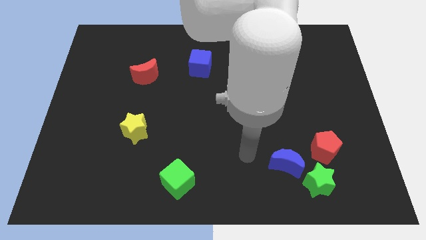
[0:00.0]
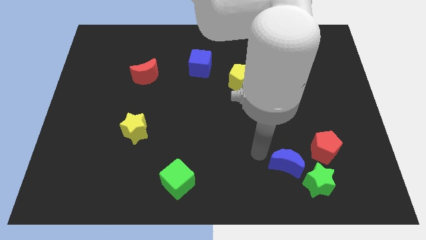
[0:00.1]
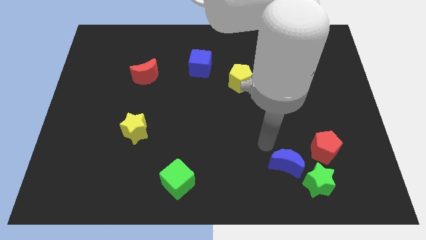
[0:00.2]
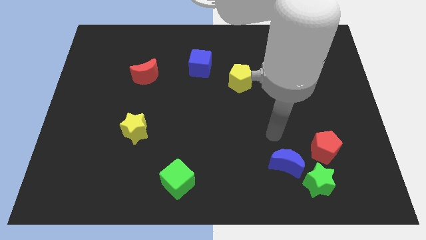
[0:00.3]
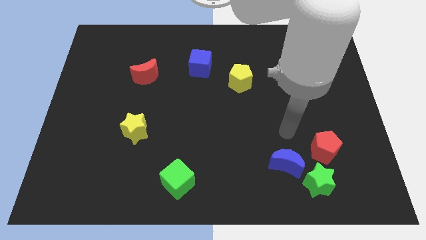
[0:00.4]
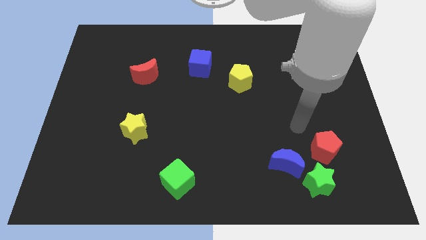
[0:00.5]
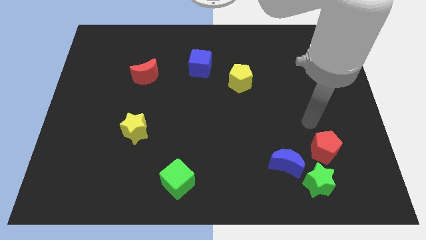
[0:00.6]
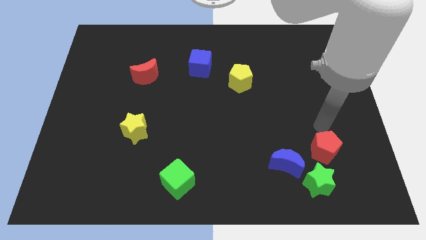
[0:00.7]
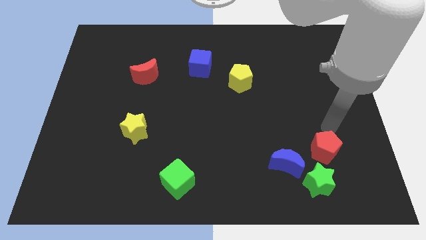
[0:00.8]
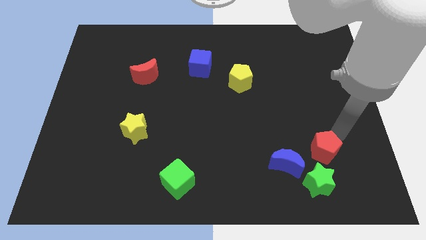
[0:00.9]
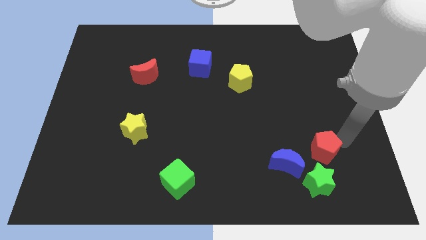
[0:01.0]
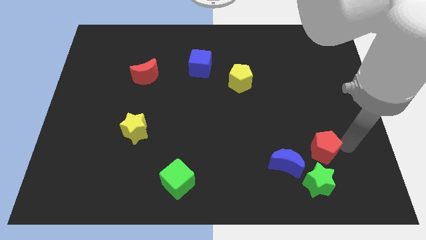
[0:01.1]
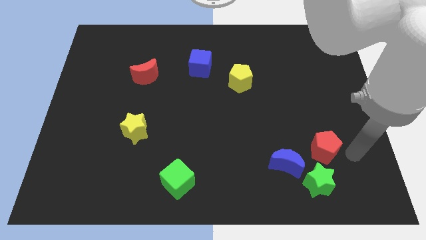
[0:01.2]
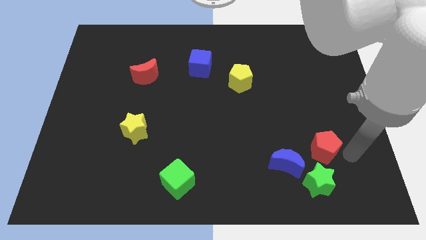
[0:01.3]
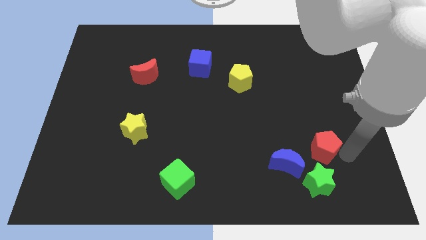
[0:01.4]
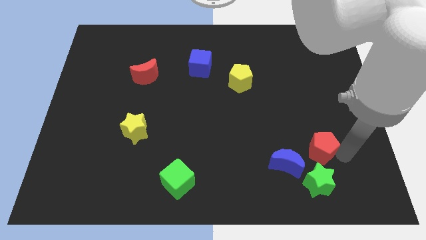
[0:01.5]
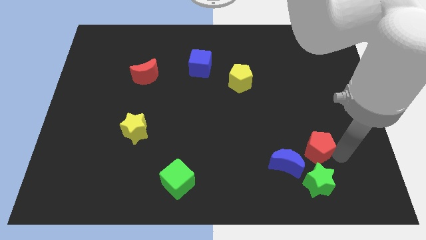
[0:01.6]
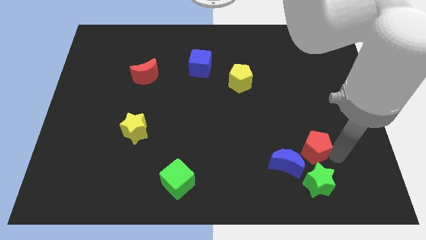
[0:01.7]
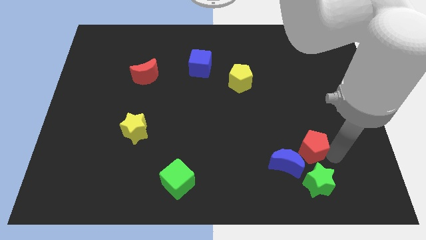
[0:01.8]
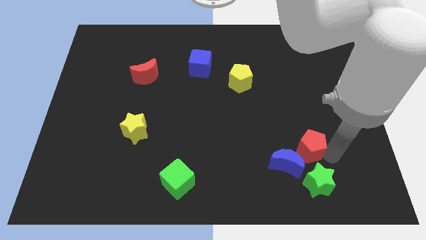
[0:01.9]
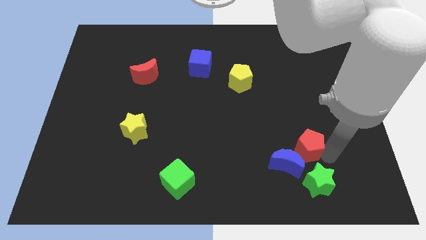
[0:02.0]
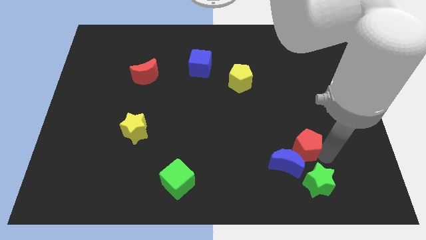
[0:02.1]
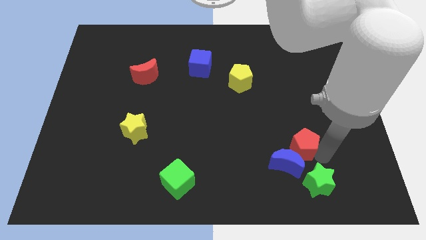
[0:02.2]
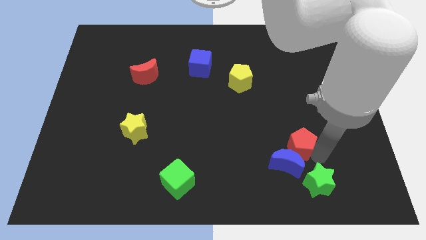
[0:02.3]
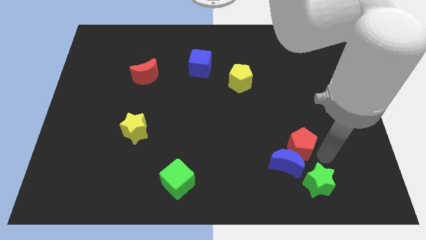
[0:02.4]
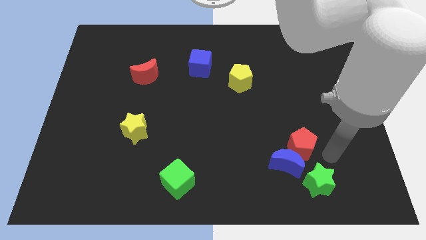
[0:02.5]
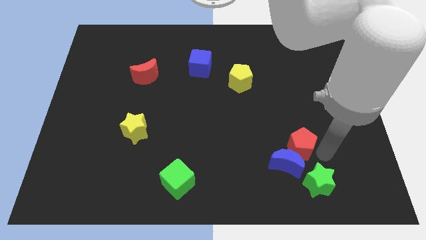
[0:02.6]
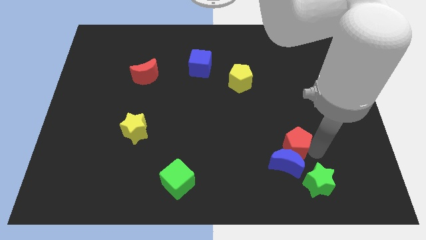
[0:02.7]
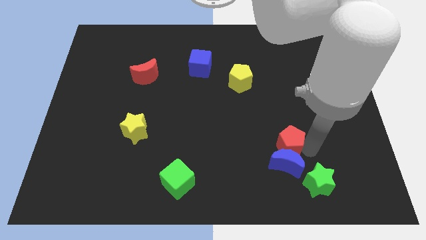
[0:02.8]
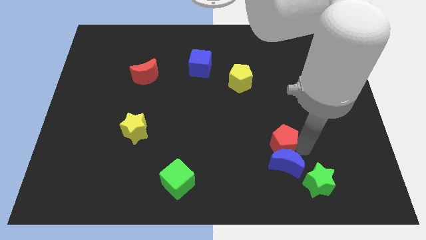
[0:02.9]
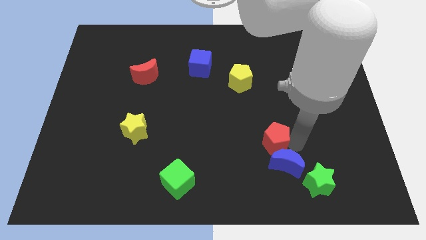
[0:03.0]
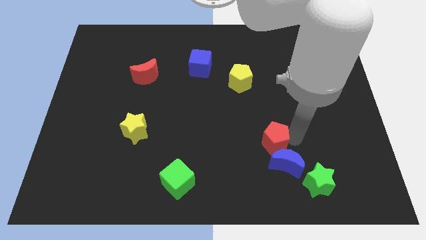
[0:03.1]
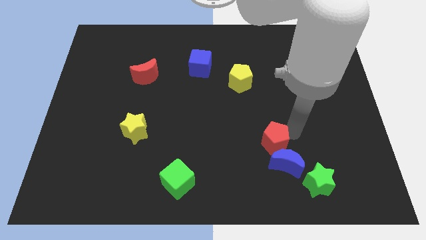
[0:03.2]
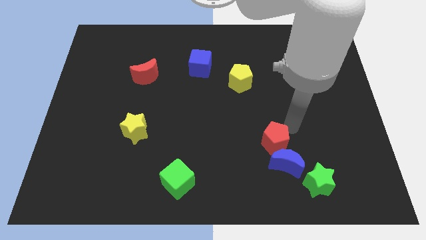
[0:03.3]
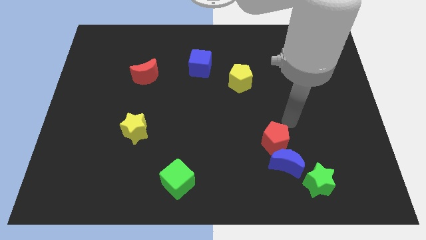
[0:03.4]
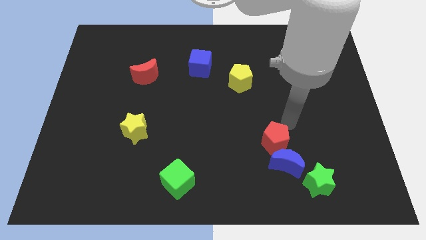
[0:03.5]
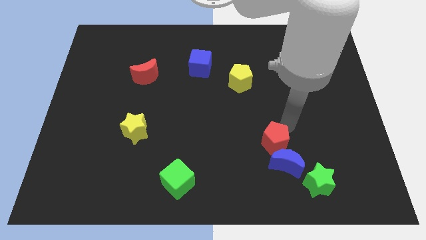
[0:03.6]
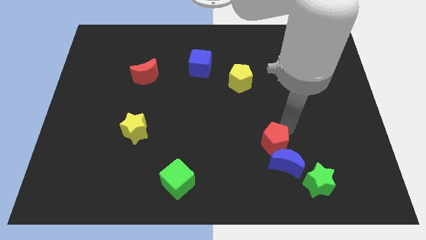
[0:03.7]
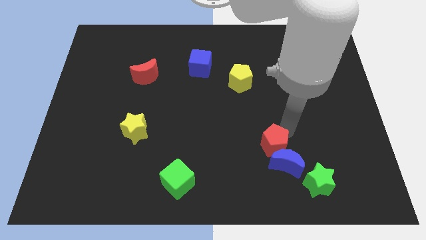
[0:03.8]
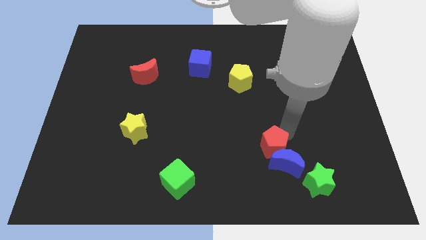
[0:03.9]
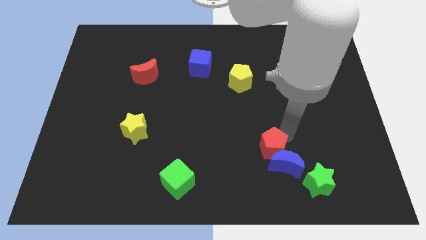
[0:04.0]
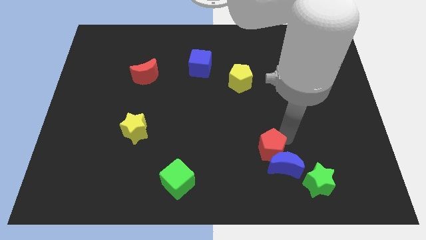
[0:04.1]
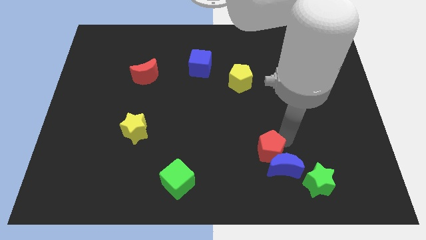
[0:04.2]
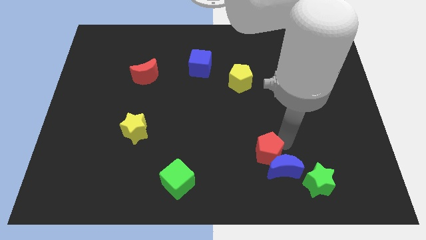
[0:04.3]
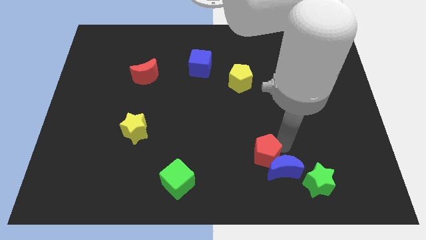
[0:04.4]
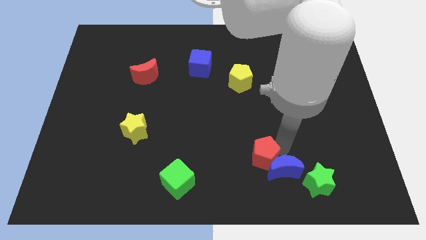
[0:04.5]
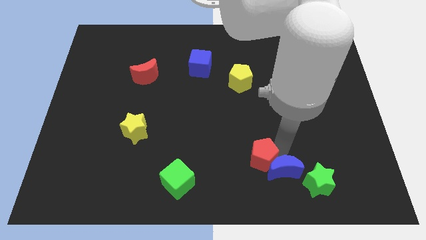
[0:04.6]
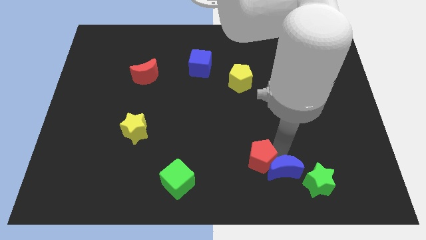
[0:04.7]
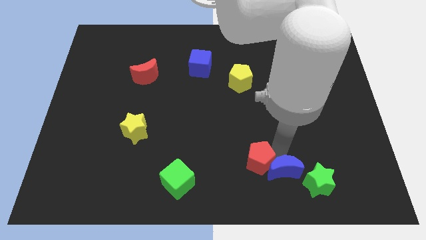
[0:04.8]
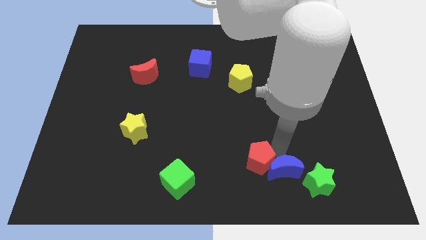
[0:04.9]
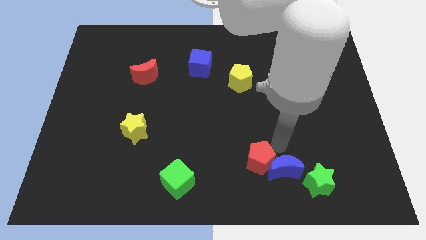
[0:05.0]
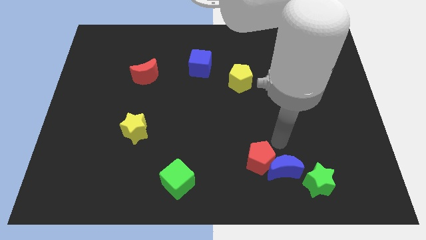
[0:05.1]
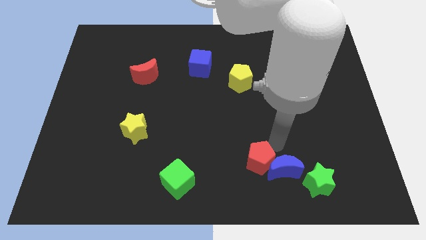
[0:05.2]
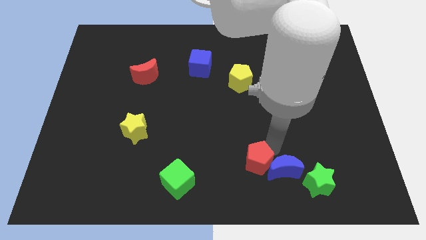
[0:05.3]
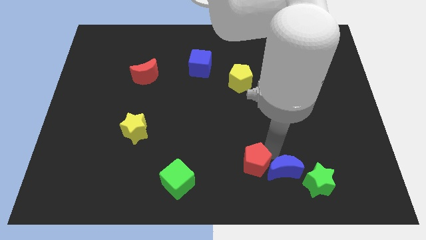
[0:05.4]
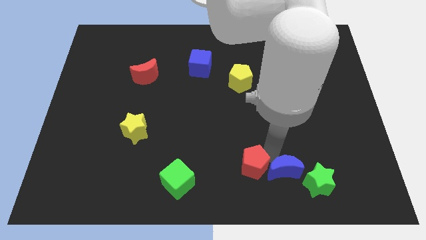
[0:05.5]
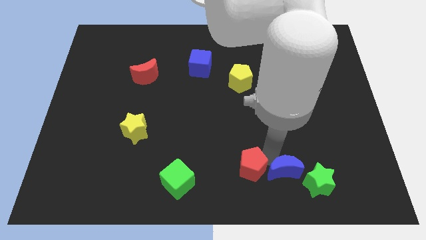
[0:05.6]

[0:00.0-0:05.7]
move the red pentagon just right of the green cube
